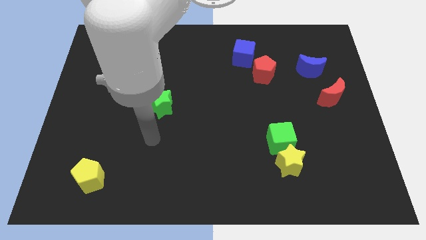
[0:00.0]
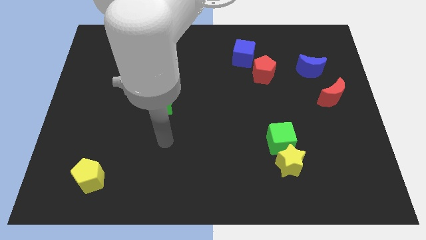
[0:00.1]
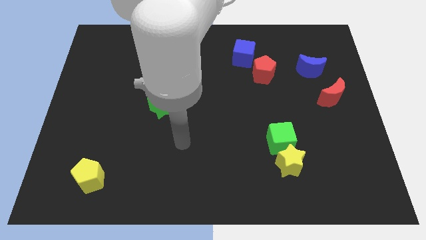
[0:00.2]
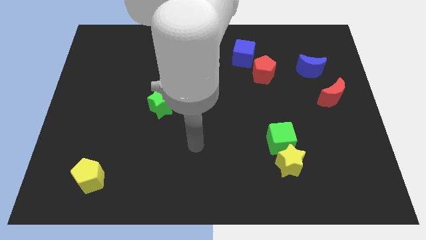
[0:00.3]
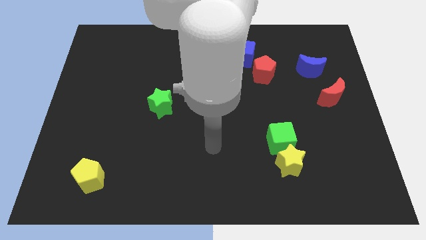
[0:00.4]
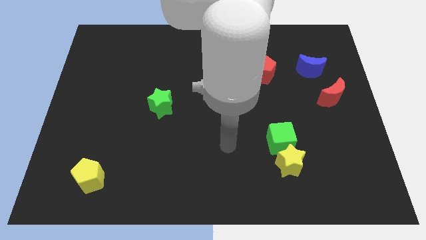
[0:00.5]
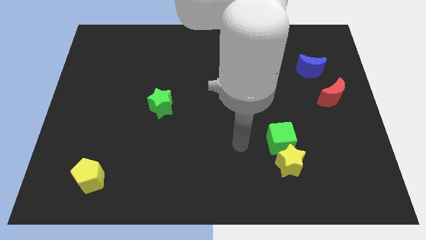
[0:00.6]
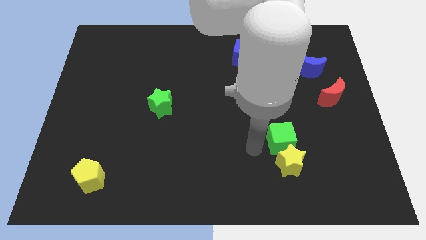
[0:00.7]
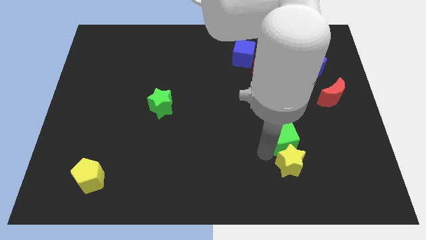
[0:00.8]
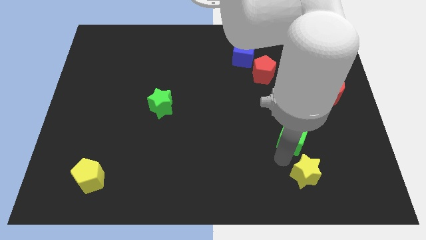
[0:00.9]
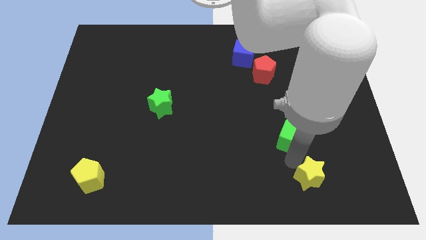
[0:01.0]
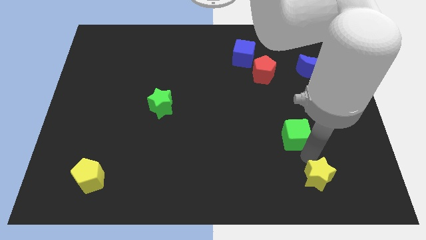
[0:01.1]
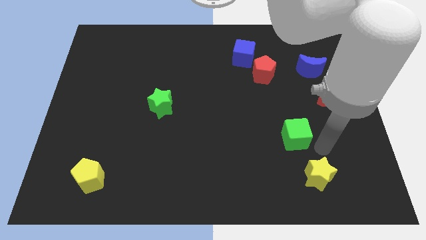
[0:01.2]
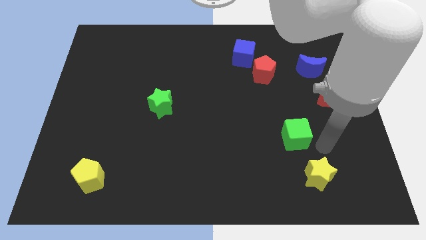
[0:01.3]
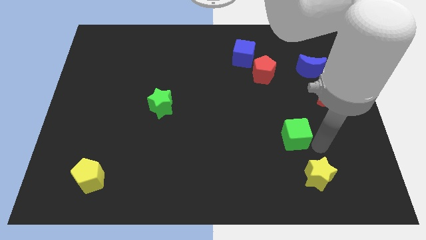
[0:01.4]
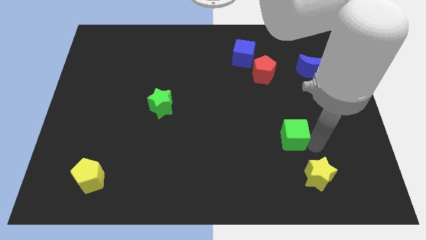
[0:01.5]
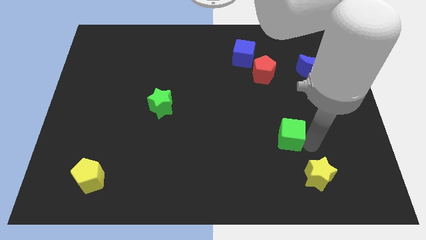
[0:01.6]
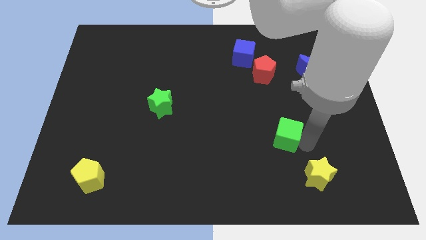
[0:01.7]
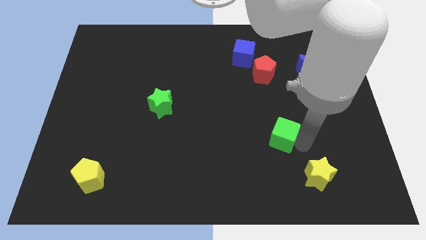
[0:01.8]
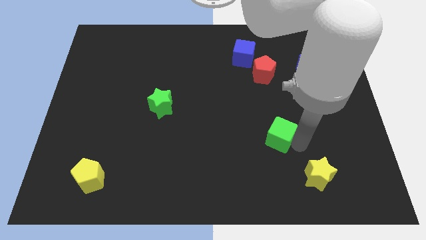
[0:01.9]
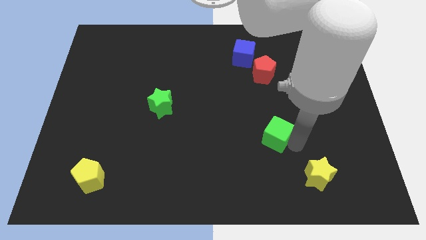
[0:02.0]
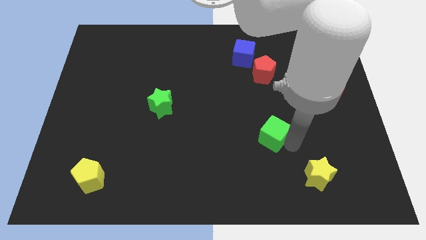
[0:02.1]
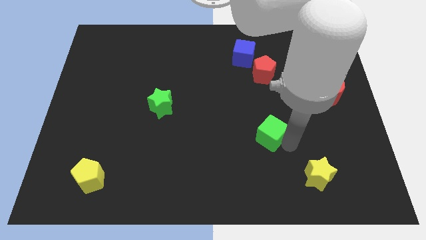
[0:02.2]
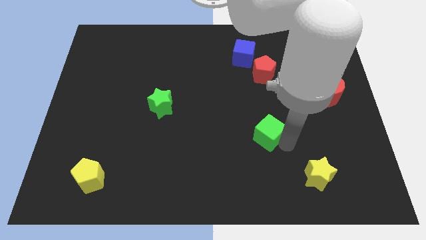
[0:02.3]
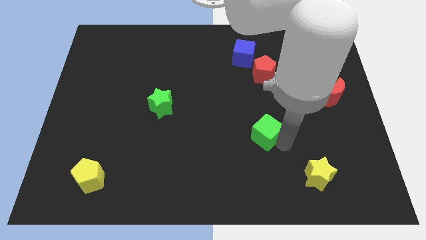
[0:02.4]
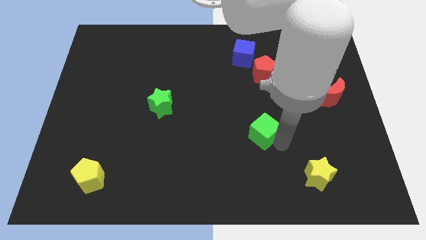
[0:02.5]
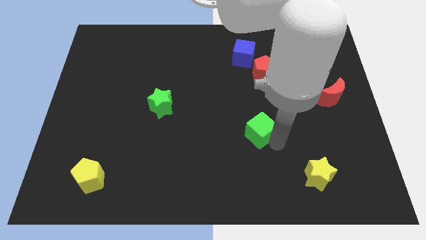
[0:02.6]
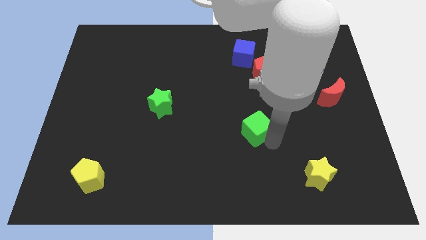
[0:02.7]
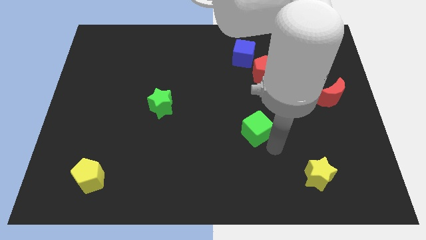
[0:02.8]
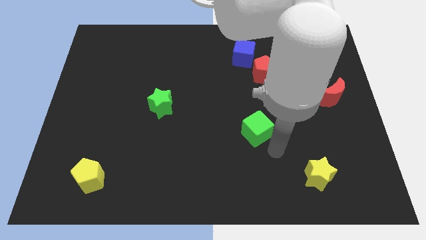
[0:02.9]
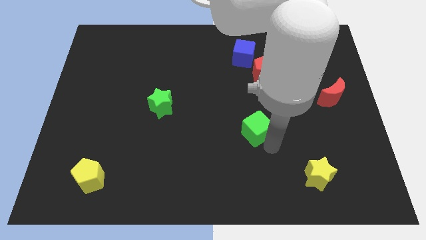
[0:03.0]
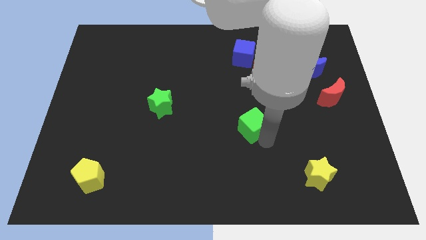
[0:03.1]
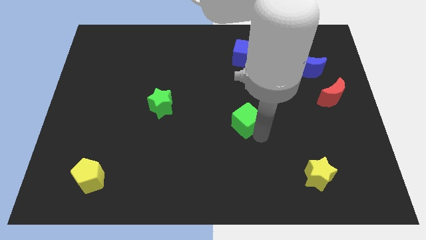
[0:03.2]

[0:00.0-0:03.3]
slightly push the green cube up and left

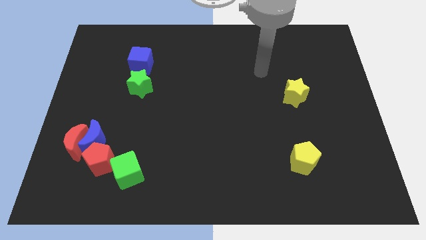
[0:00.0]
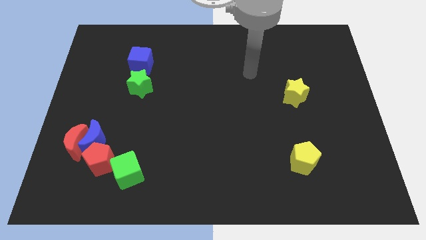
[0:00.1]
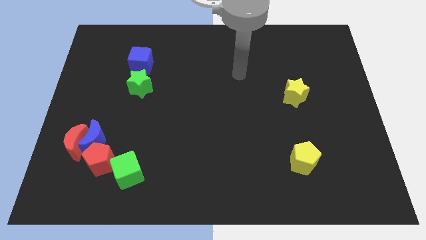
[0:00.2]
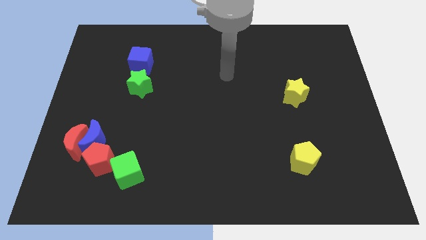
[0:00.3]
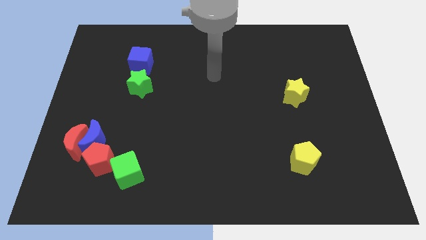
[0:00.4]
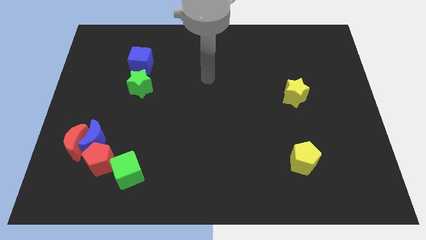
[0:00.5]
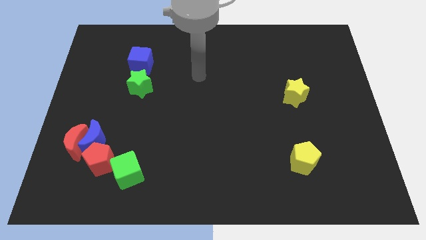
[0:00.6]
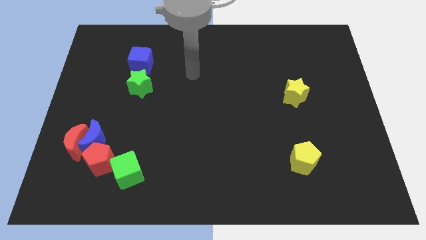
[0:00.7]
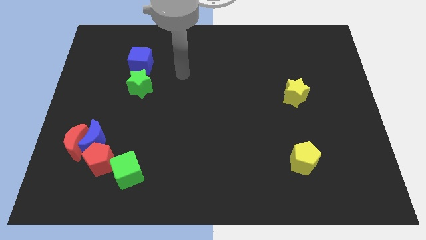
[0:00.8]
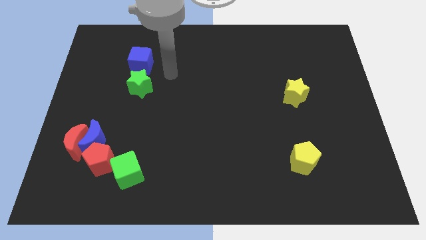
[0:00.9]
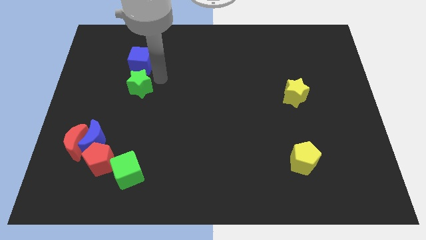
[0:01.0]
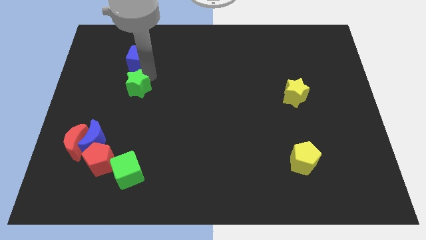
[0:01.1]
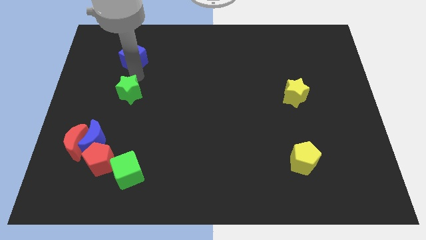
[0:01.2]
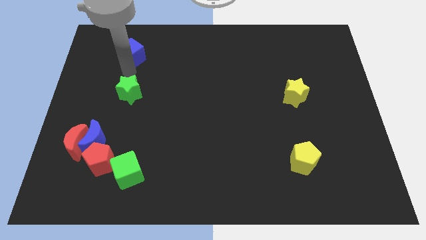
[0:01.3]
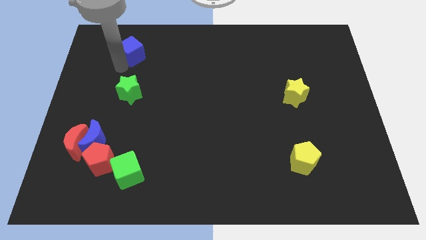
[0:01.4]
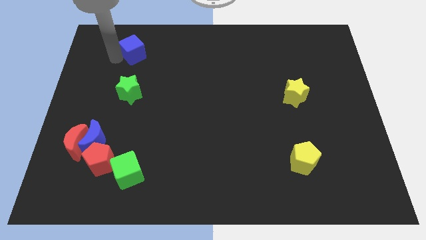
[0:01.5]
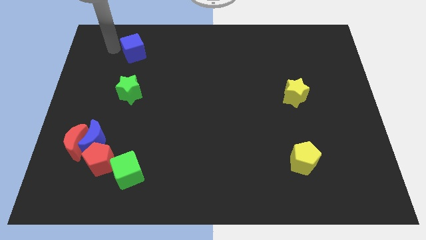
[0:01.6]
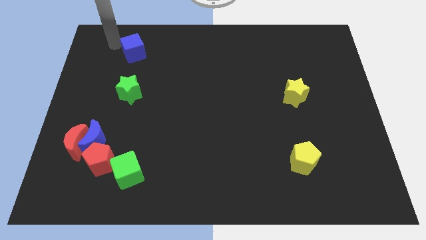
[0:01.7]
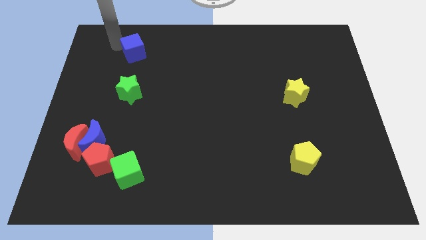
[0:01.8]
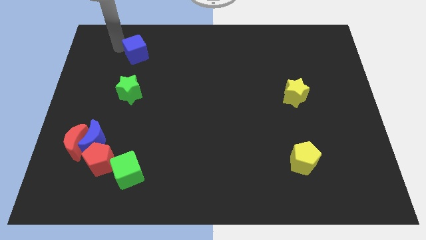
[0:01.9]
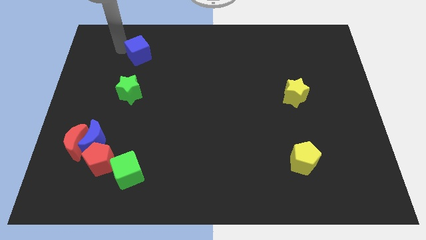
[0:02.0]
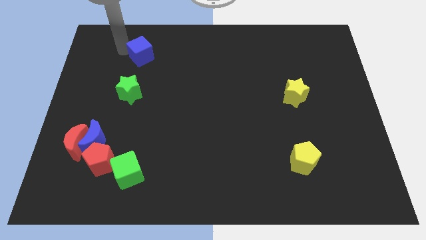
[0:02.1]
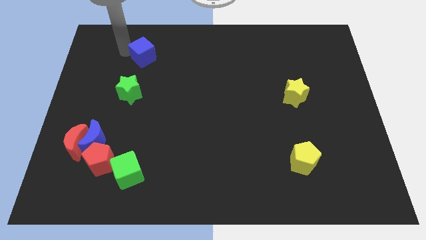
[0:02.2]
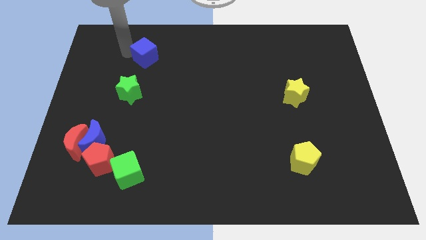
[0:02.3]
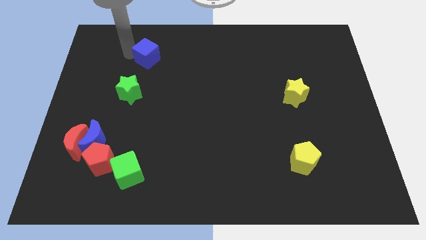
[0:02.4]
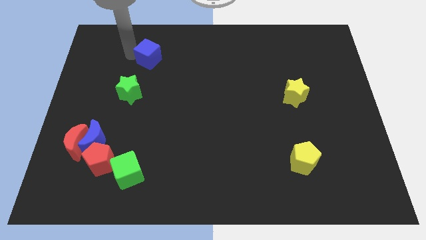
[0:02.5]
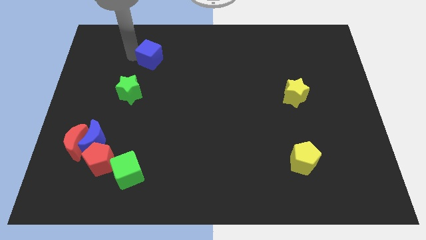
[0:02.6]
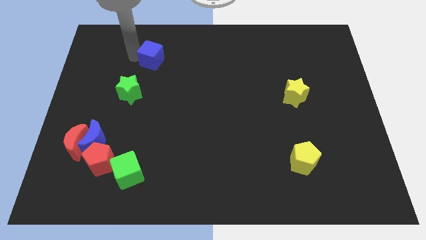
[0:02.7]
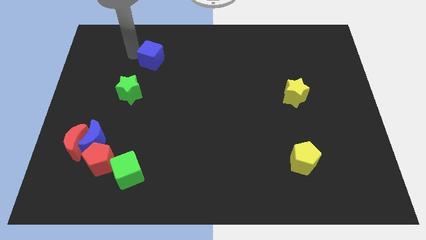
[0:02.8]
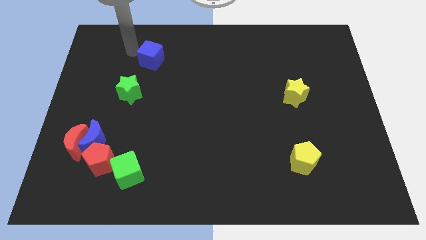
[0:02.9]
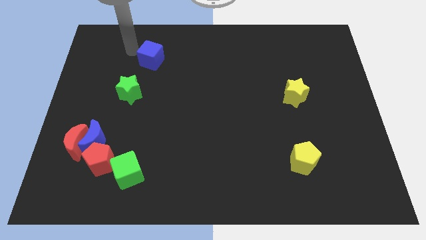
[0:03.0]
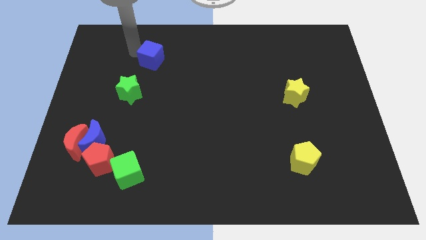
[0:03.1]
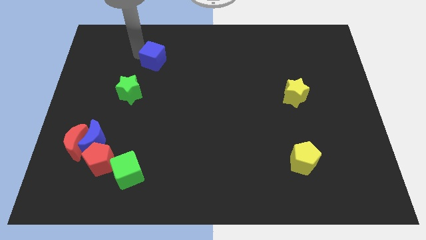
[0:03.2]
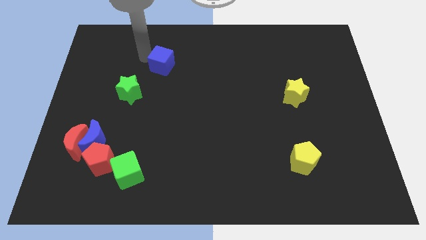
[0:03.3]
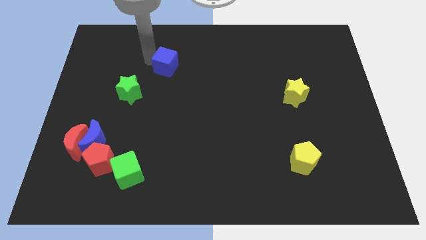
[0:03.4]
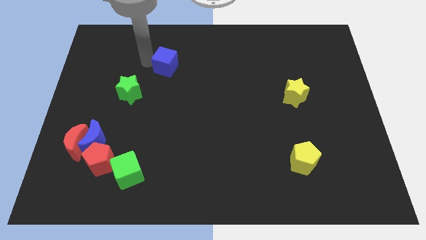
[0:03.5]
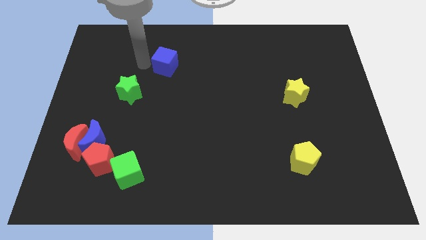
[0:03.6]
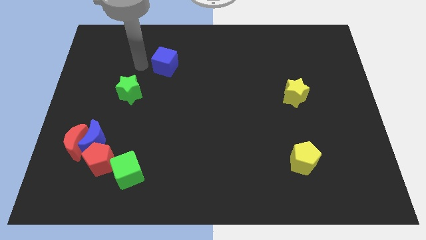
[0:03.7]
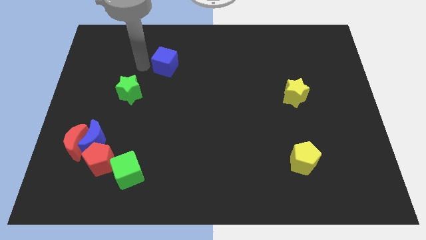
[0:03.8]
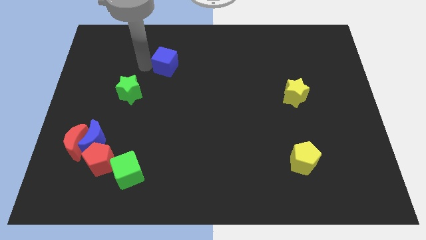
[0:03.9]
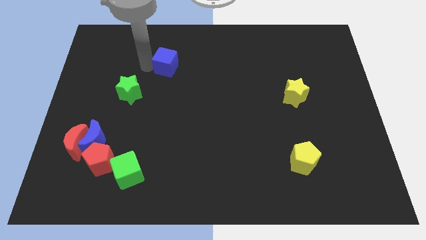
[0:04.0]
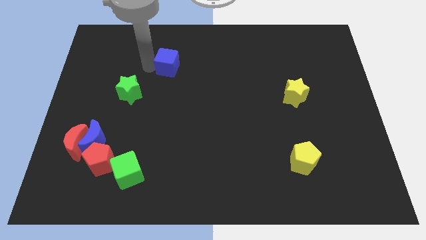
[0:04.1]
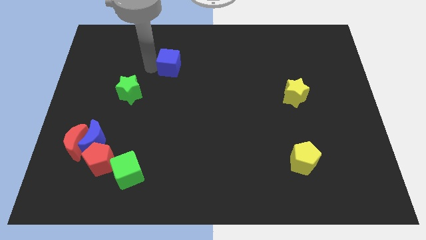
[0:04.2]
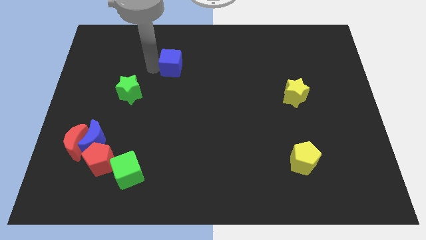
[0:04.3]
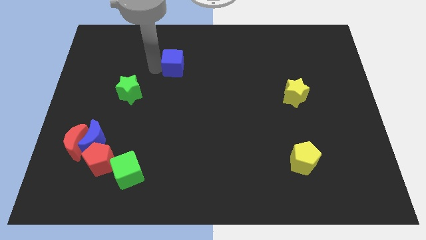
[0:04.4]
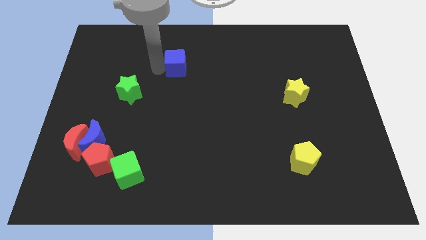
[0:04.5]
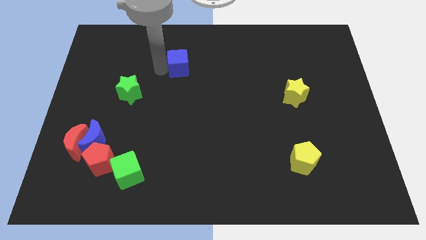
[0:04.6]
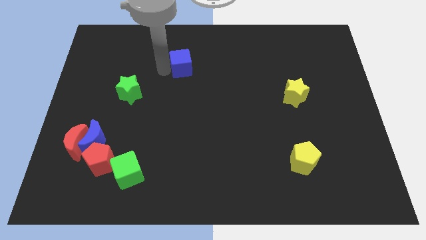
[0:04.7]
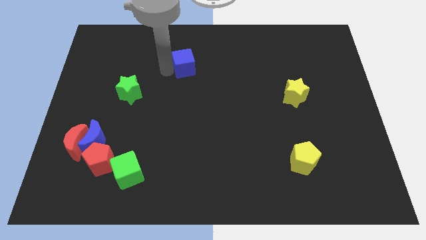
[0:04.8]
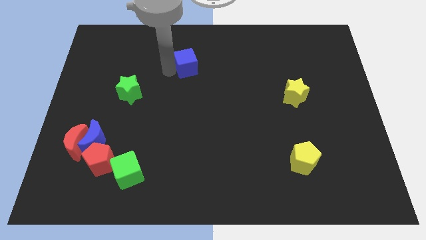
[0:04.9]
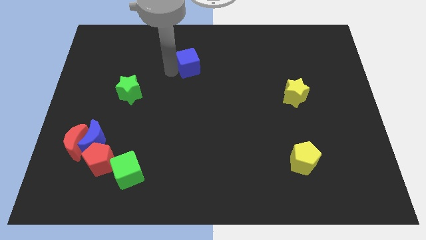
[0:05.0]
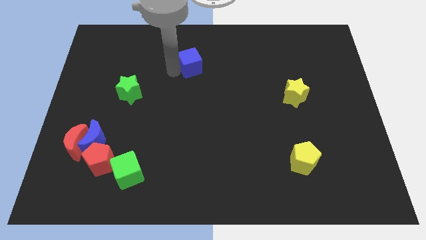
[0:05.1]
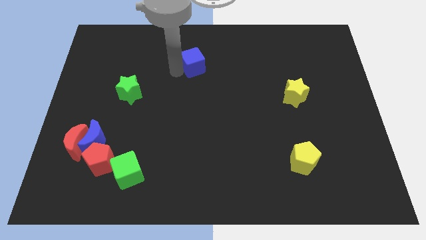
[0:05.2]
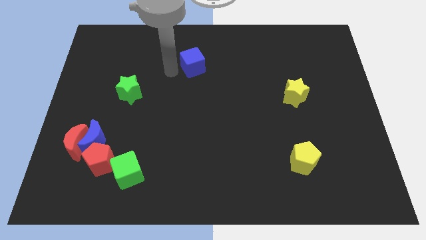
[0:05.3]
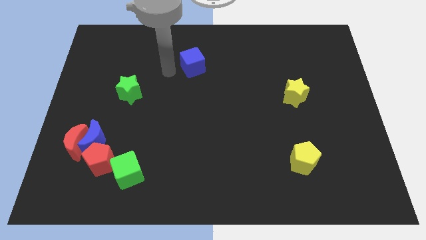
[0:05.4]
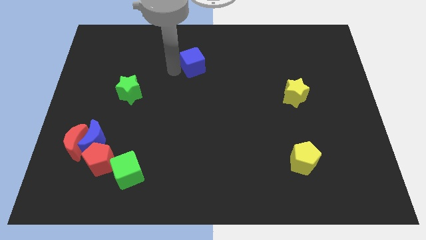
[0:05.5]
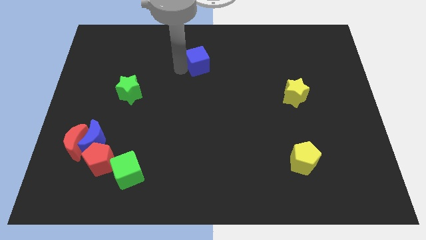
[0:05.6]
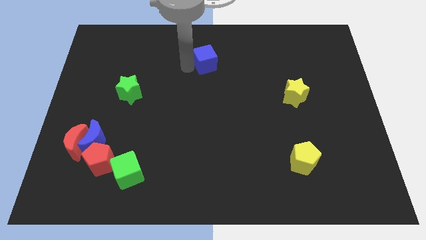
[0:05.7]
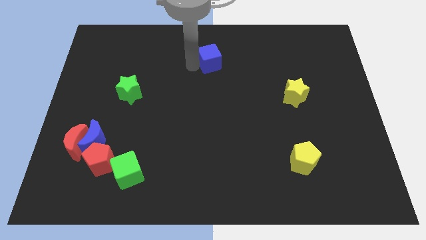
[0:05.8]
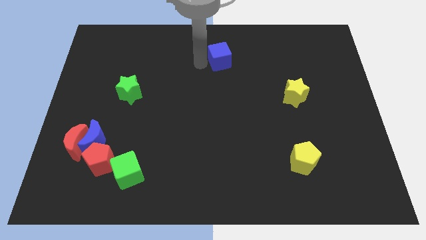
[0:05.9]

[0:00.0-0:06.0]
move the blue cube to the right
